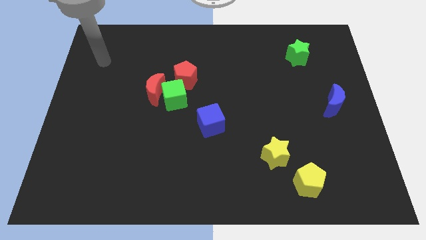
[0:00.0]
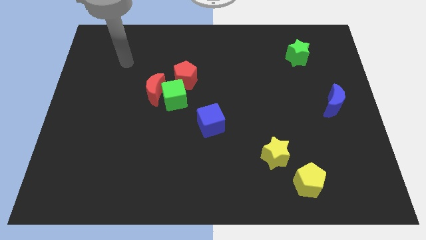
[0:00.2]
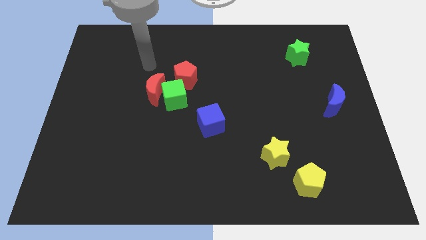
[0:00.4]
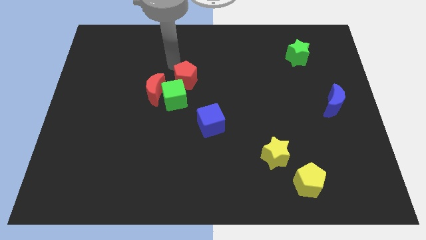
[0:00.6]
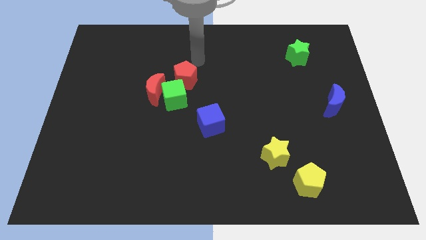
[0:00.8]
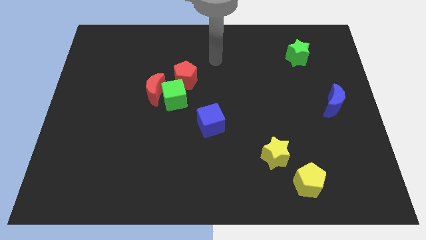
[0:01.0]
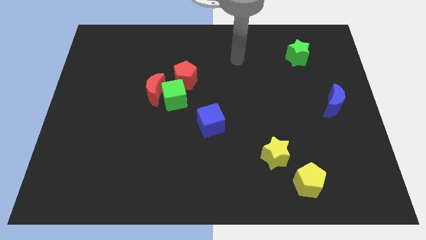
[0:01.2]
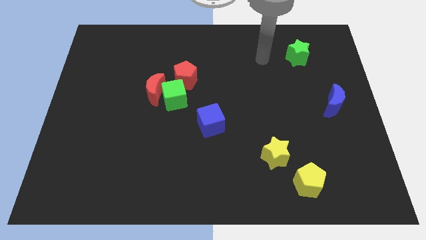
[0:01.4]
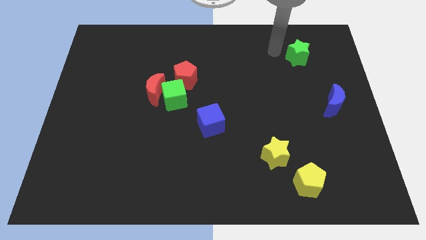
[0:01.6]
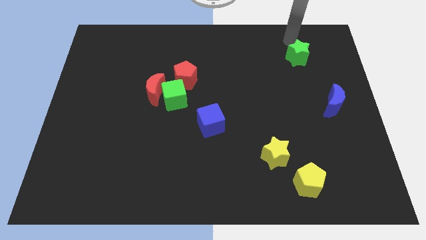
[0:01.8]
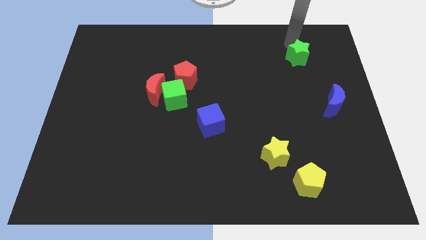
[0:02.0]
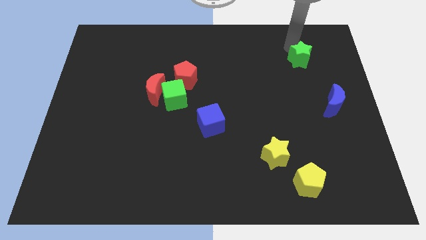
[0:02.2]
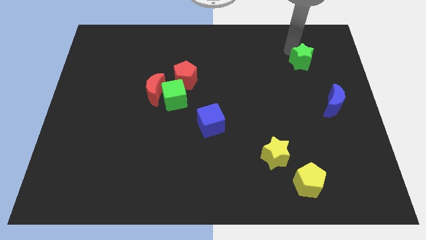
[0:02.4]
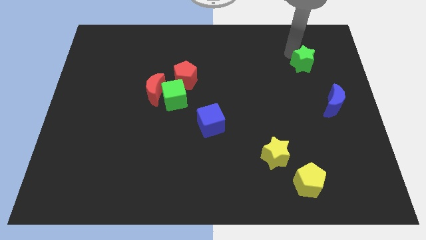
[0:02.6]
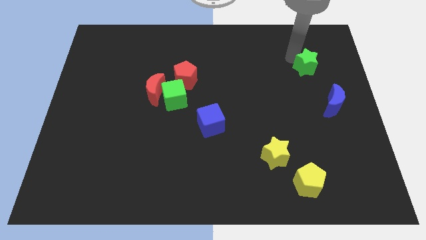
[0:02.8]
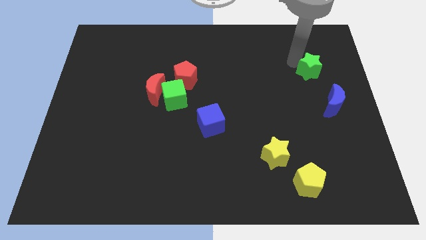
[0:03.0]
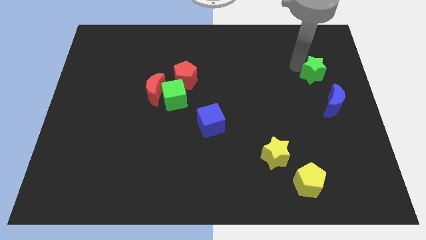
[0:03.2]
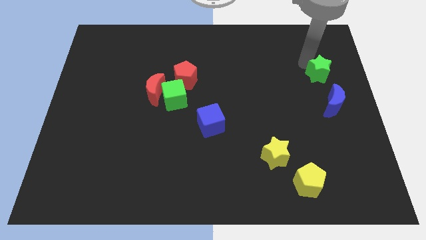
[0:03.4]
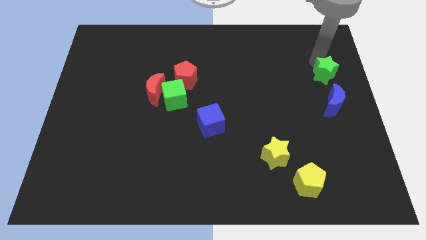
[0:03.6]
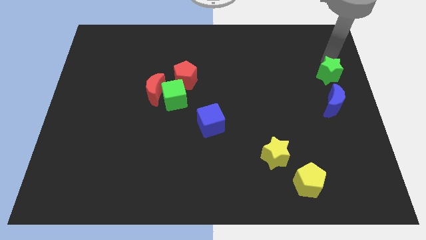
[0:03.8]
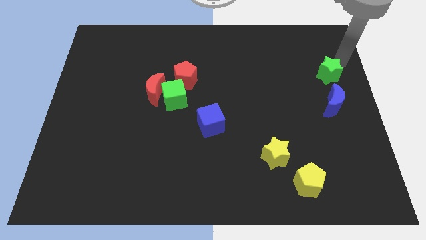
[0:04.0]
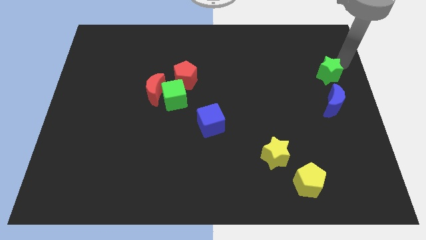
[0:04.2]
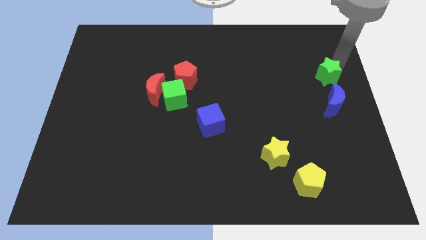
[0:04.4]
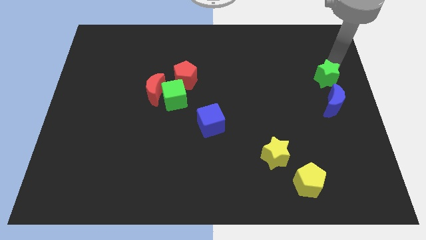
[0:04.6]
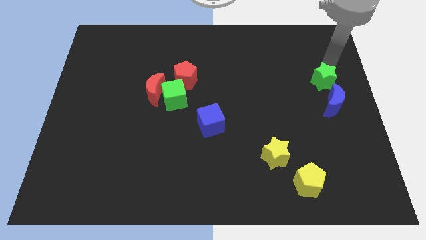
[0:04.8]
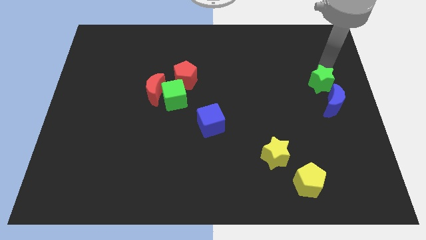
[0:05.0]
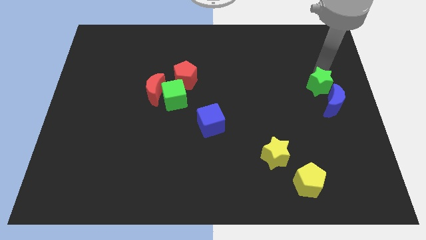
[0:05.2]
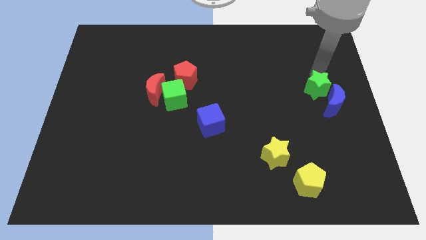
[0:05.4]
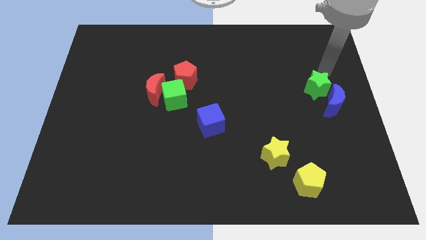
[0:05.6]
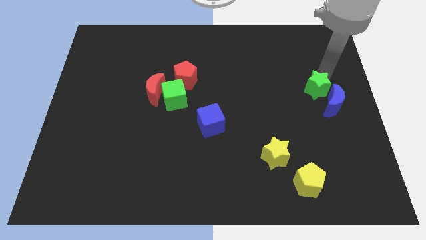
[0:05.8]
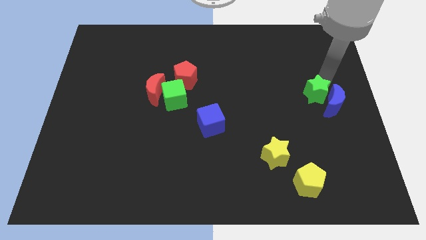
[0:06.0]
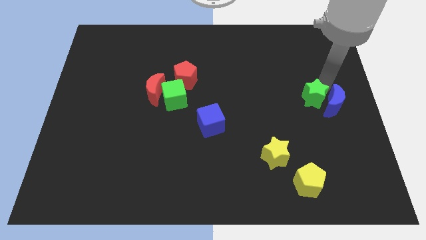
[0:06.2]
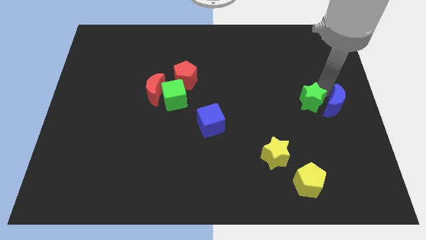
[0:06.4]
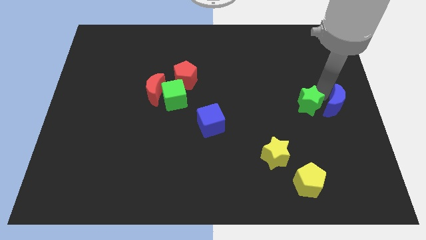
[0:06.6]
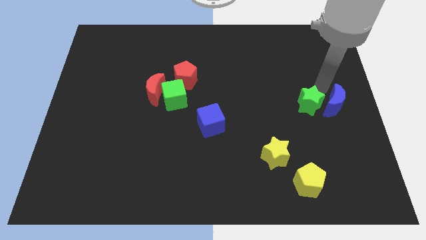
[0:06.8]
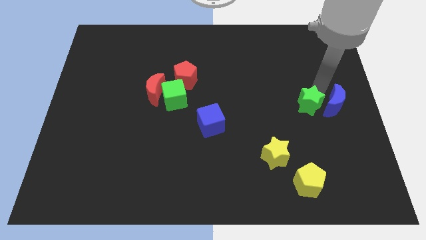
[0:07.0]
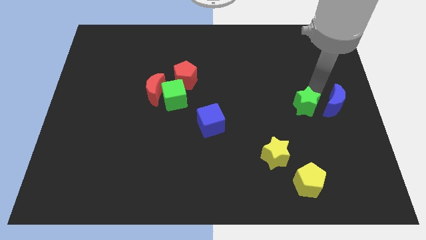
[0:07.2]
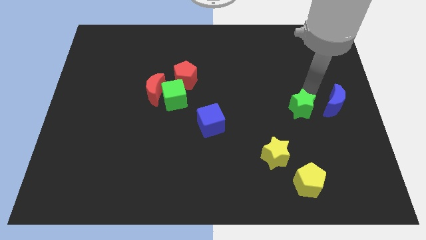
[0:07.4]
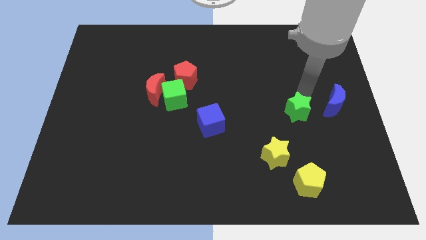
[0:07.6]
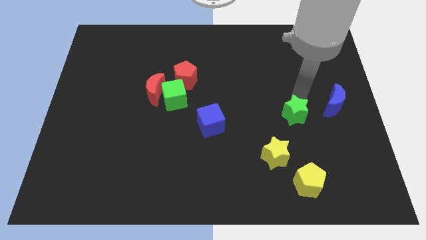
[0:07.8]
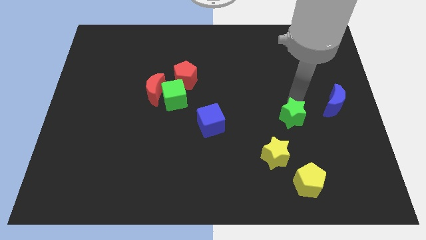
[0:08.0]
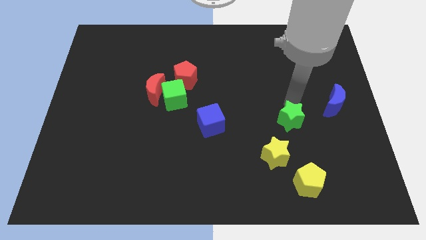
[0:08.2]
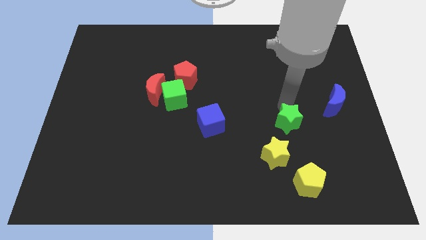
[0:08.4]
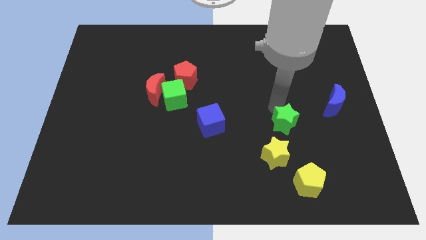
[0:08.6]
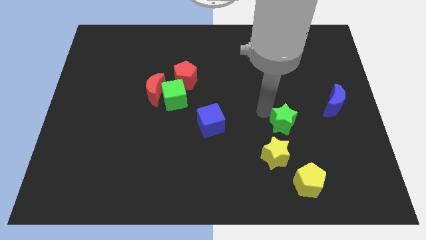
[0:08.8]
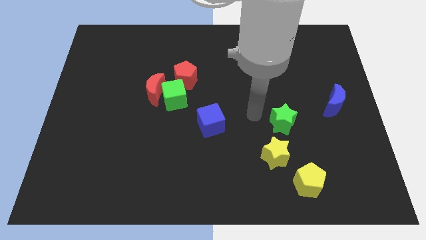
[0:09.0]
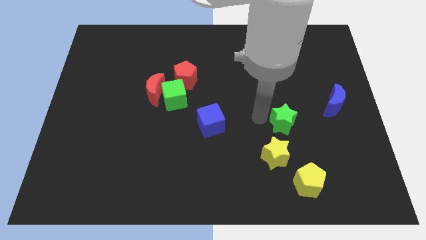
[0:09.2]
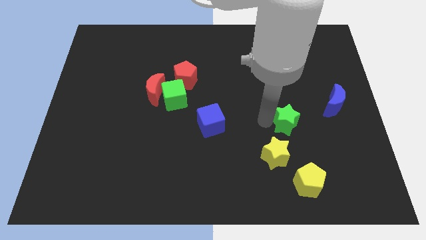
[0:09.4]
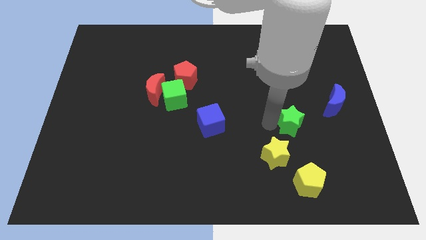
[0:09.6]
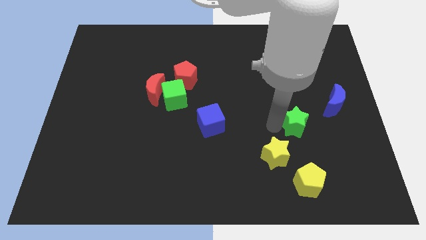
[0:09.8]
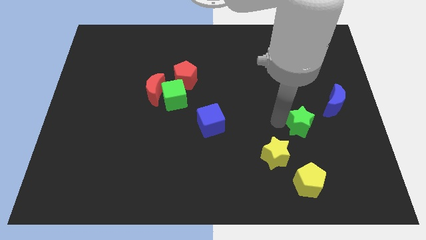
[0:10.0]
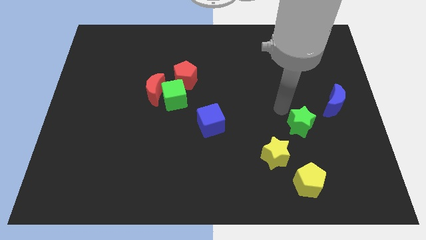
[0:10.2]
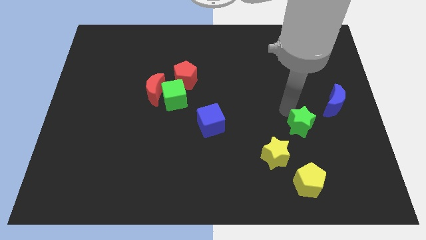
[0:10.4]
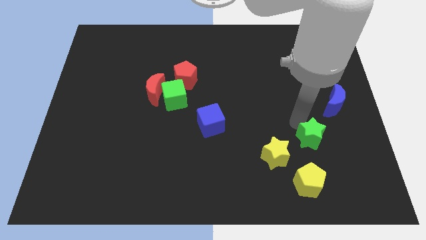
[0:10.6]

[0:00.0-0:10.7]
move the green star right of the yellow star

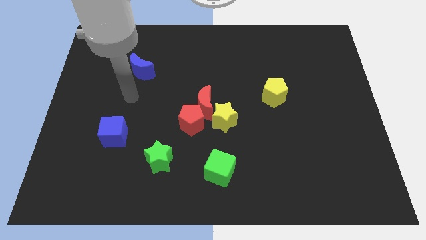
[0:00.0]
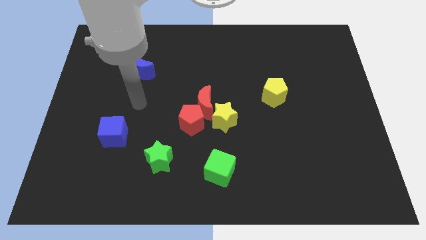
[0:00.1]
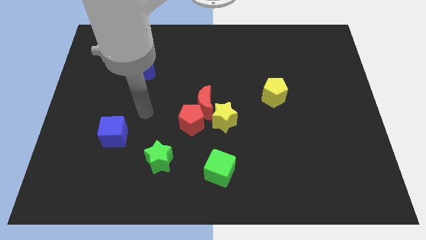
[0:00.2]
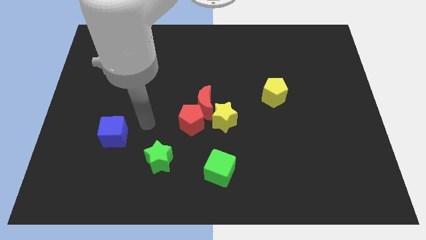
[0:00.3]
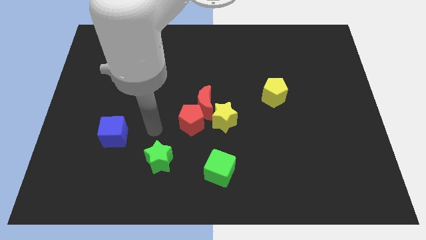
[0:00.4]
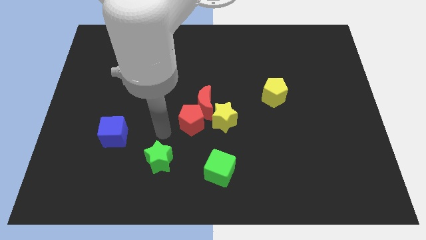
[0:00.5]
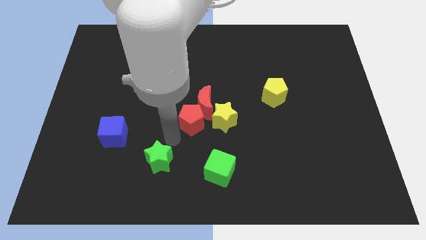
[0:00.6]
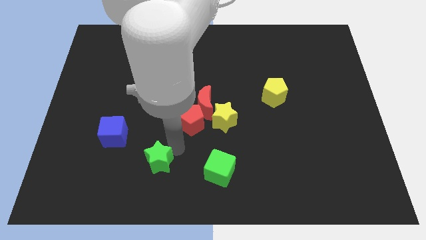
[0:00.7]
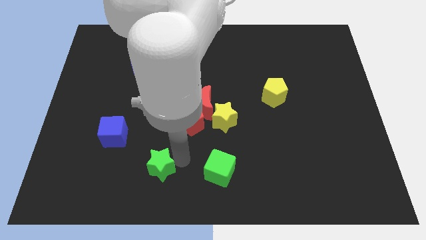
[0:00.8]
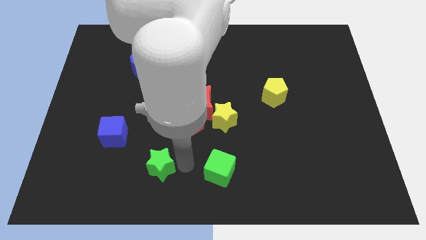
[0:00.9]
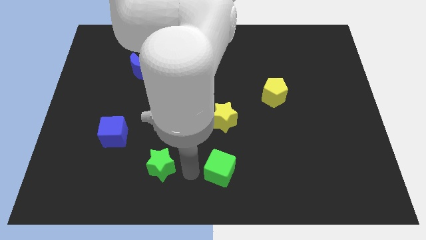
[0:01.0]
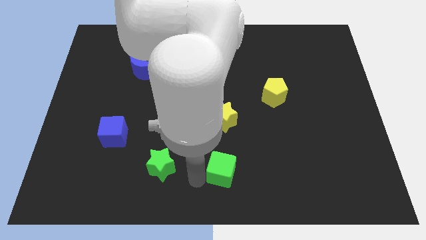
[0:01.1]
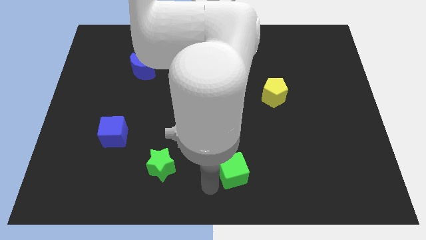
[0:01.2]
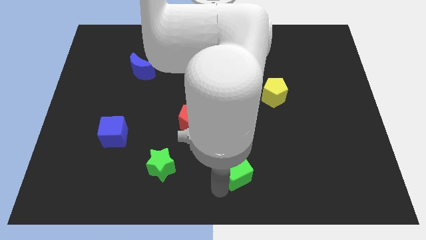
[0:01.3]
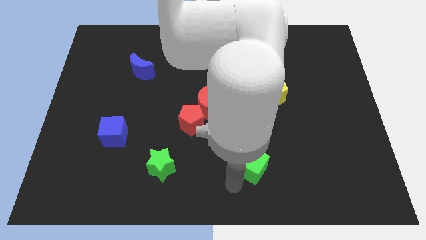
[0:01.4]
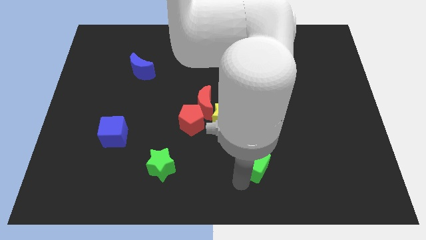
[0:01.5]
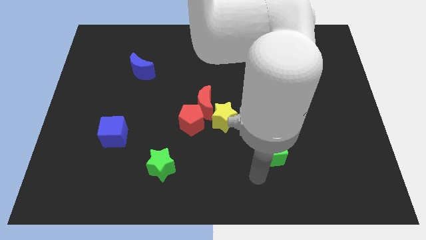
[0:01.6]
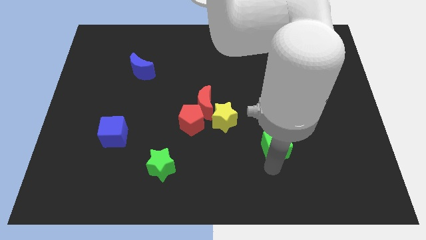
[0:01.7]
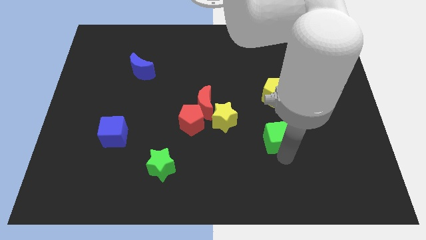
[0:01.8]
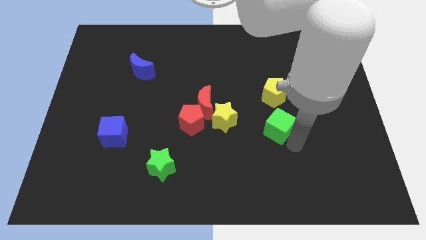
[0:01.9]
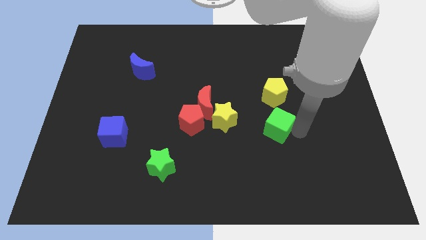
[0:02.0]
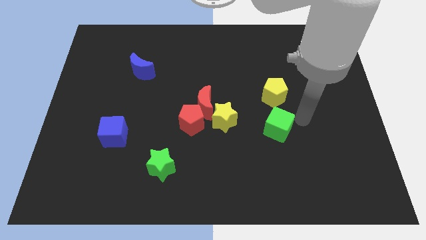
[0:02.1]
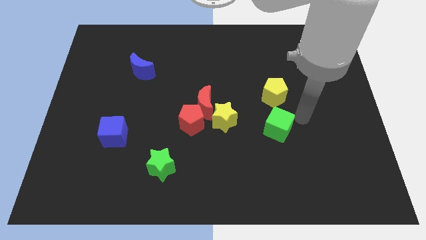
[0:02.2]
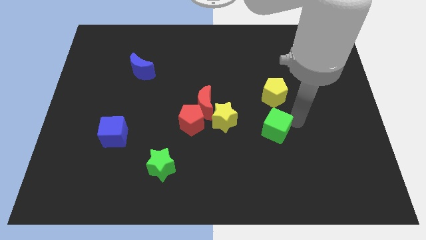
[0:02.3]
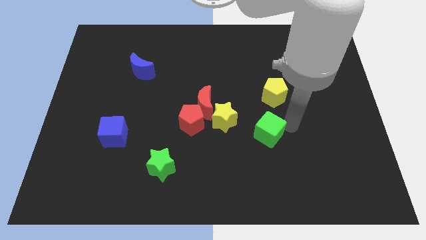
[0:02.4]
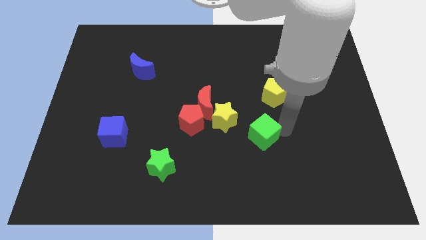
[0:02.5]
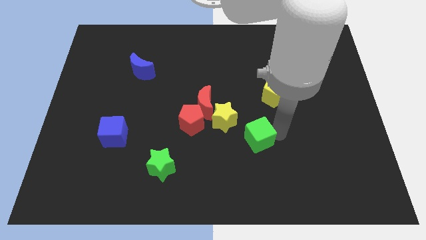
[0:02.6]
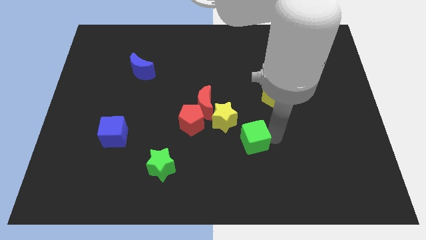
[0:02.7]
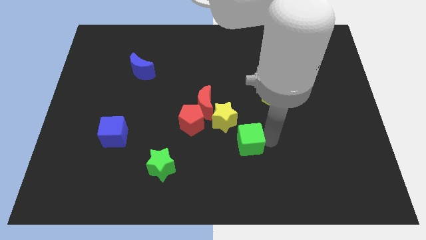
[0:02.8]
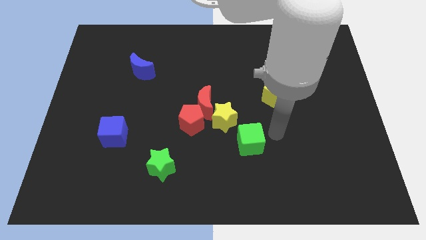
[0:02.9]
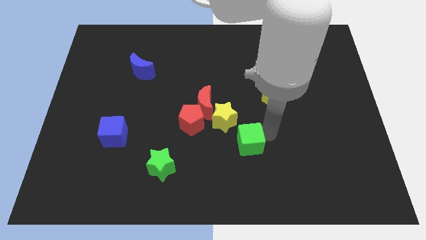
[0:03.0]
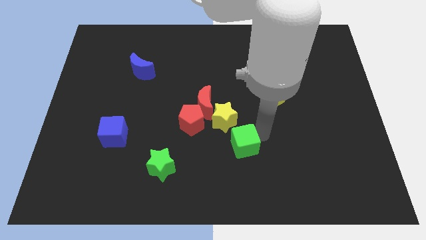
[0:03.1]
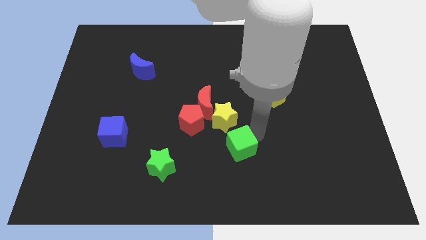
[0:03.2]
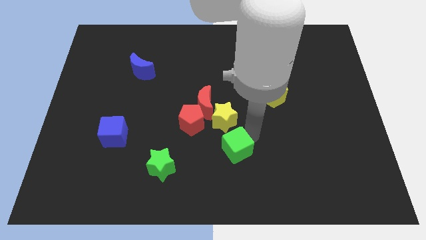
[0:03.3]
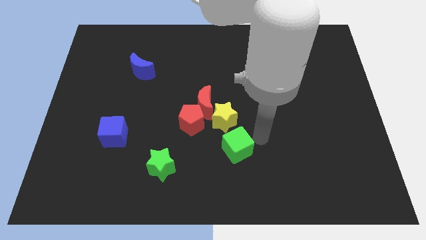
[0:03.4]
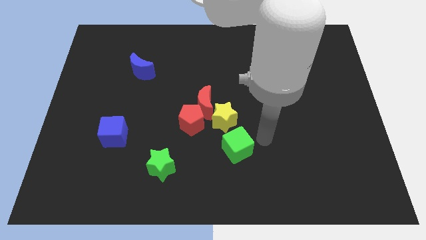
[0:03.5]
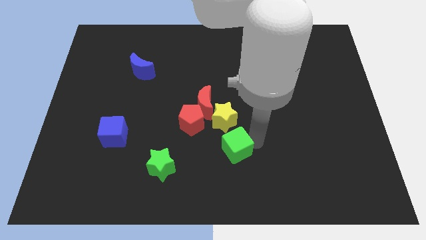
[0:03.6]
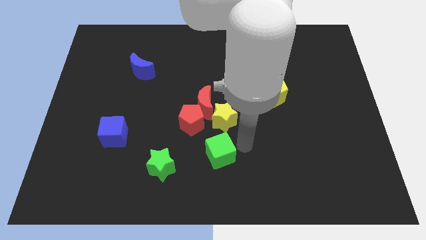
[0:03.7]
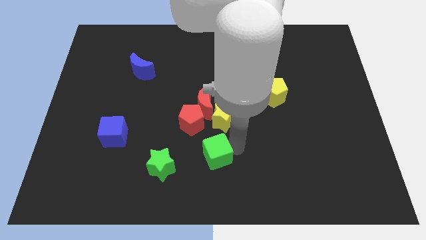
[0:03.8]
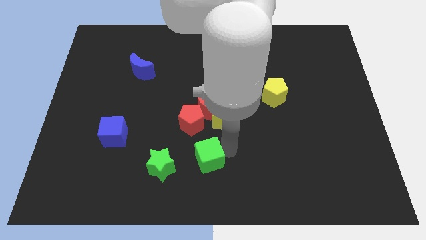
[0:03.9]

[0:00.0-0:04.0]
slide the green cube below the red pentagon
